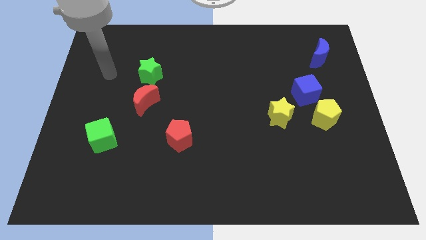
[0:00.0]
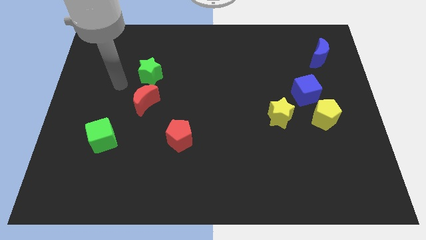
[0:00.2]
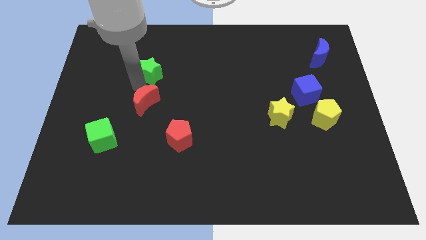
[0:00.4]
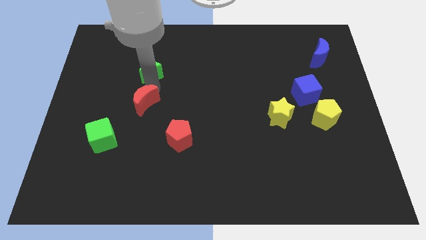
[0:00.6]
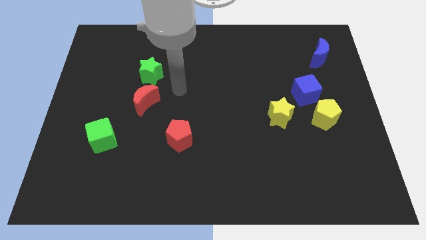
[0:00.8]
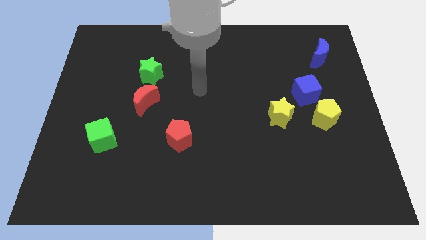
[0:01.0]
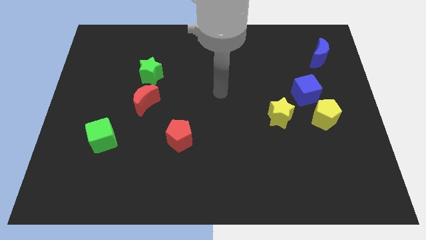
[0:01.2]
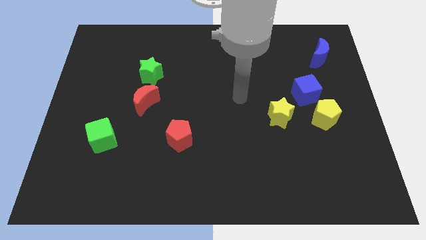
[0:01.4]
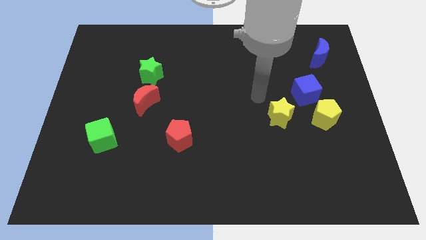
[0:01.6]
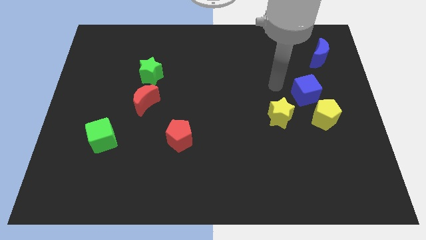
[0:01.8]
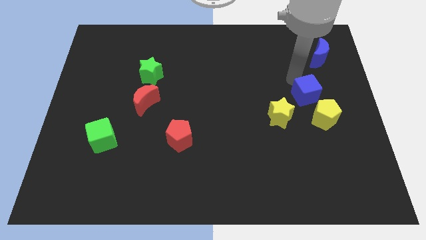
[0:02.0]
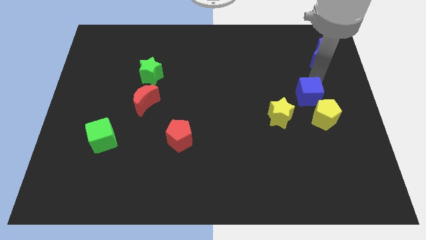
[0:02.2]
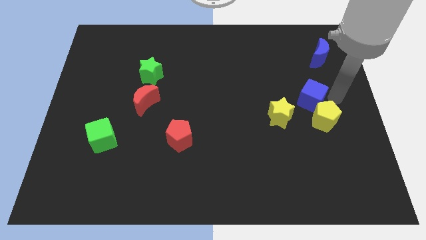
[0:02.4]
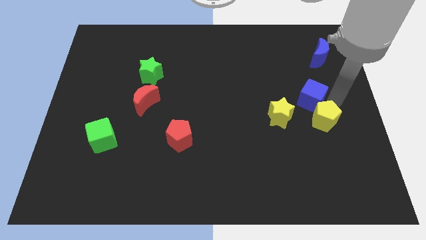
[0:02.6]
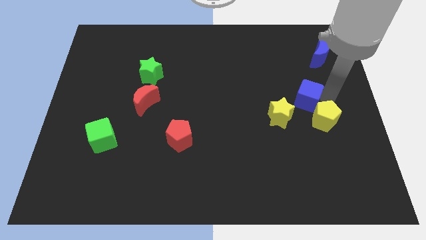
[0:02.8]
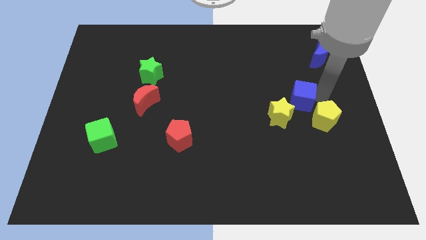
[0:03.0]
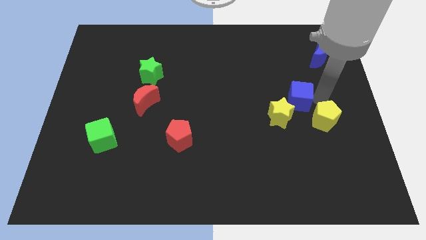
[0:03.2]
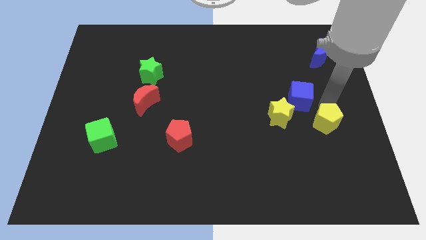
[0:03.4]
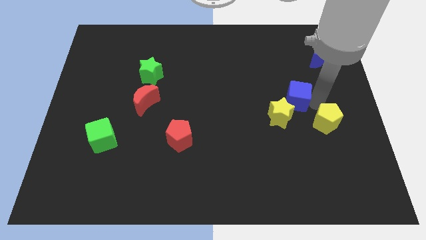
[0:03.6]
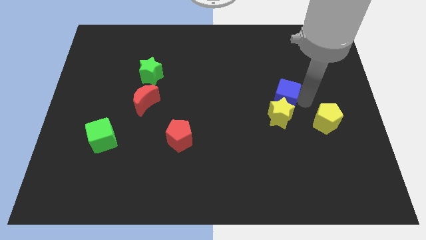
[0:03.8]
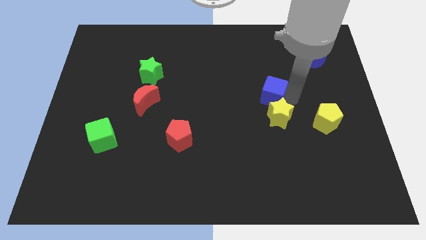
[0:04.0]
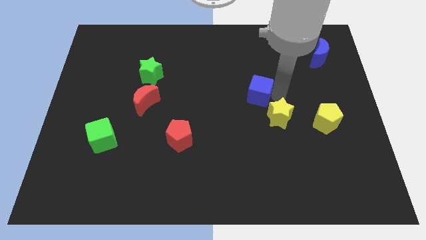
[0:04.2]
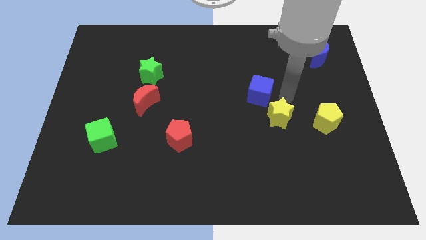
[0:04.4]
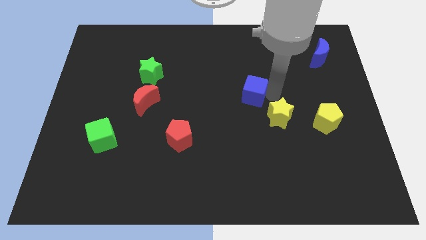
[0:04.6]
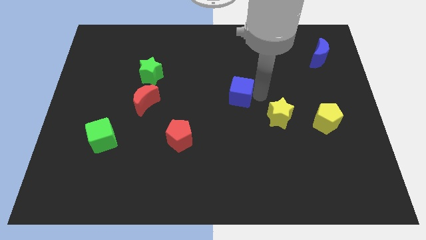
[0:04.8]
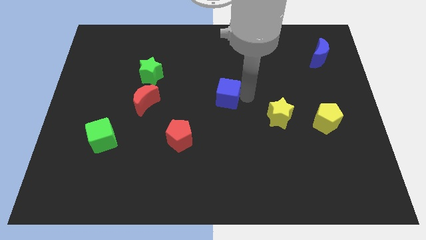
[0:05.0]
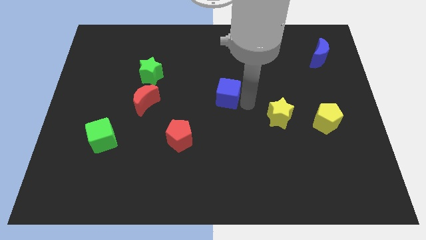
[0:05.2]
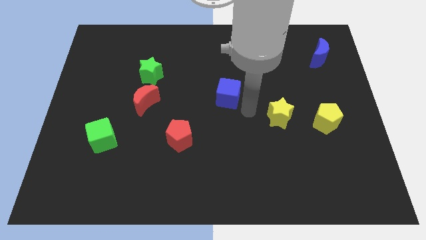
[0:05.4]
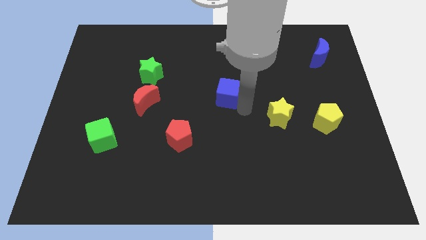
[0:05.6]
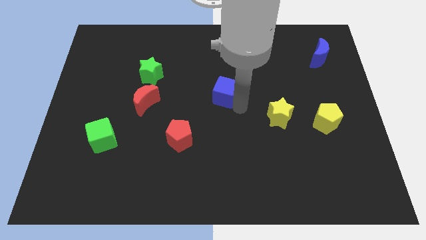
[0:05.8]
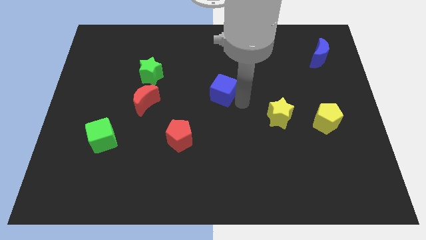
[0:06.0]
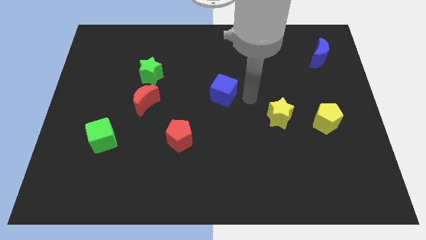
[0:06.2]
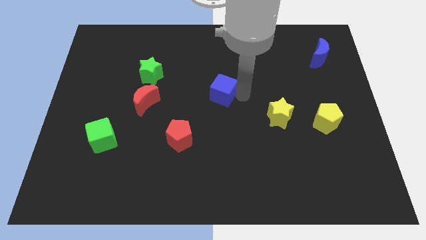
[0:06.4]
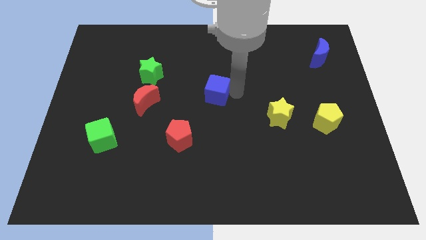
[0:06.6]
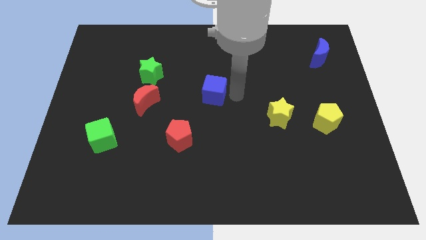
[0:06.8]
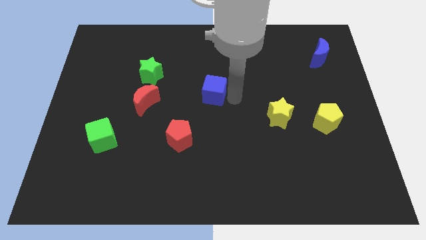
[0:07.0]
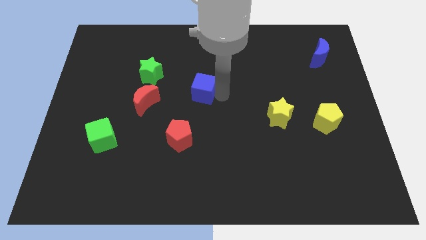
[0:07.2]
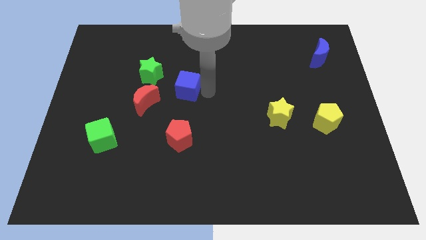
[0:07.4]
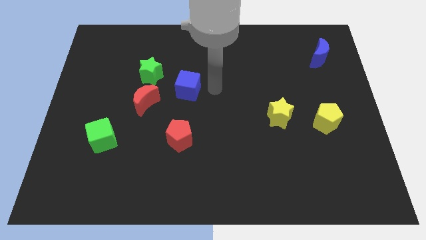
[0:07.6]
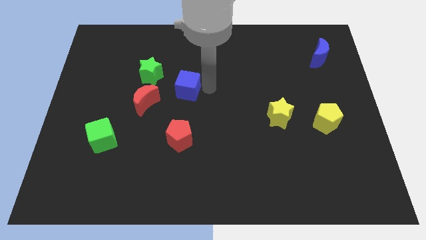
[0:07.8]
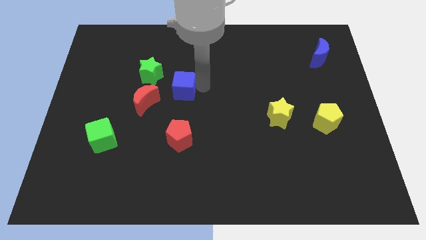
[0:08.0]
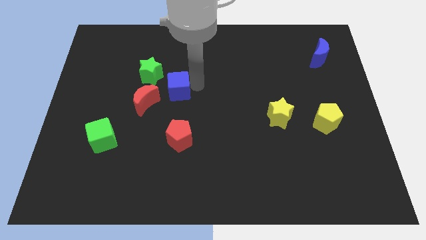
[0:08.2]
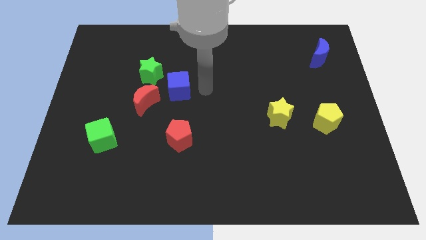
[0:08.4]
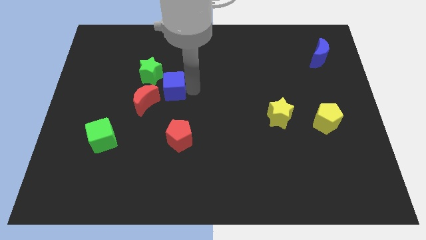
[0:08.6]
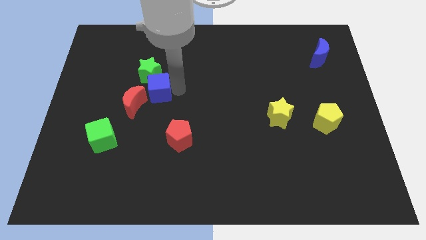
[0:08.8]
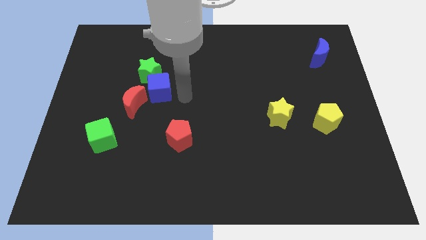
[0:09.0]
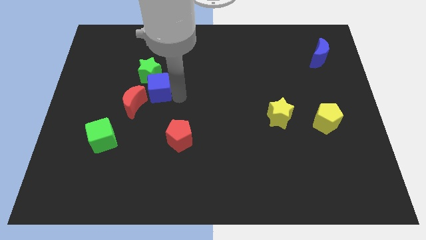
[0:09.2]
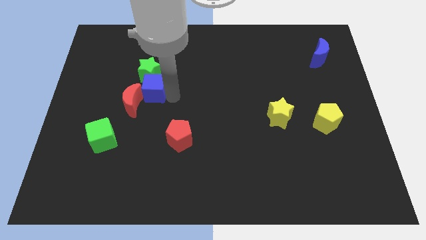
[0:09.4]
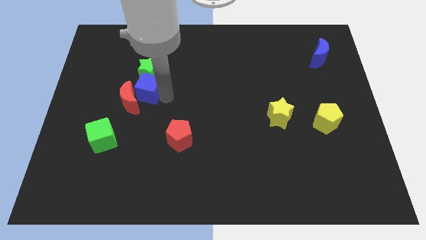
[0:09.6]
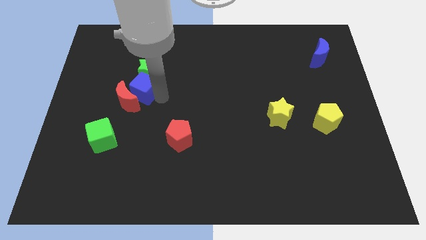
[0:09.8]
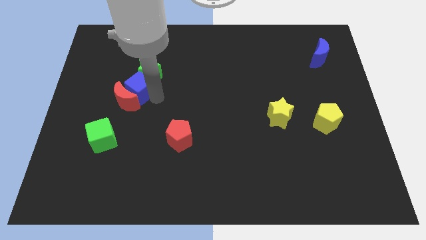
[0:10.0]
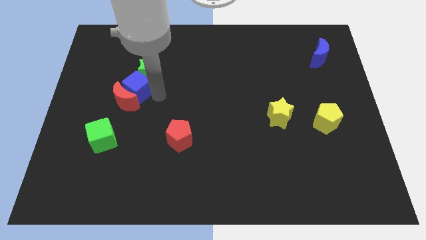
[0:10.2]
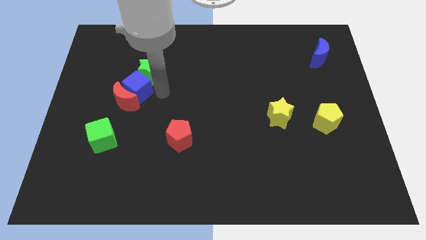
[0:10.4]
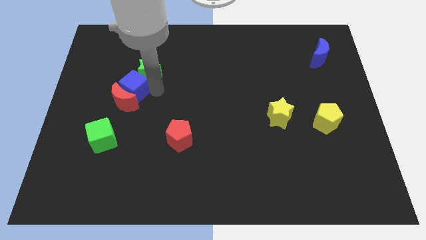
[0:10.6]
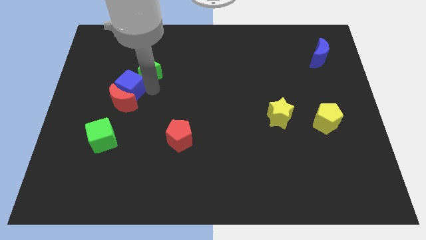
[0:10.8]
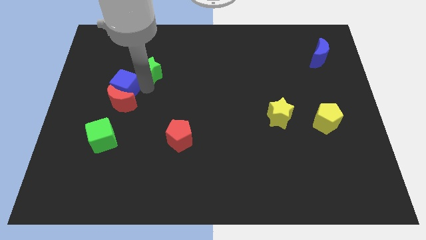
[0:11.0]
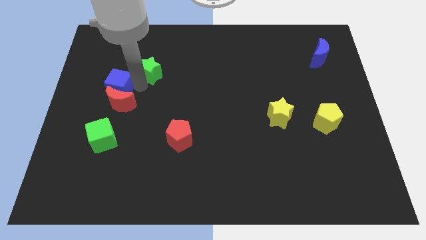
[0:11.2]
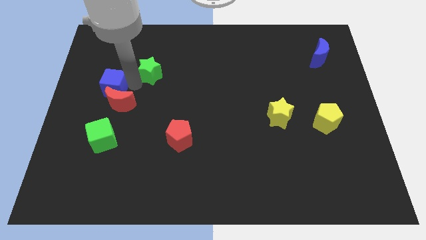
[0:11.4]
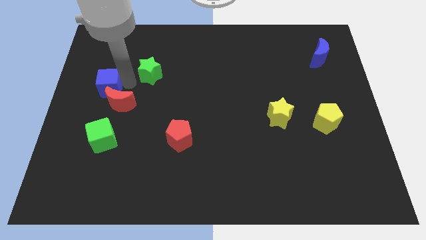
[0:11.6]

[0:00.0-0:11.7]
put the blue cube to the left side
